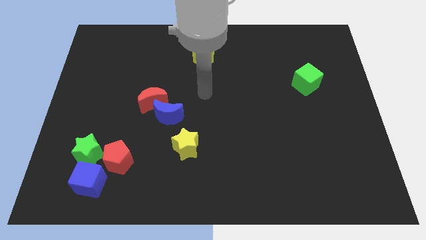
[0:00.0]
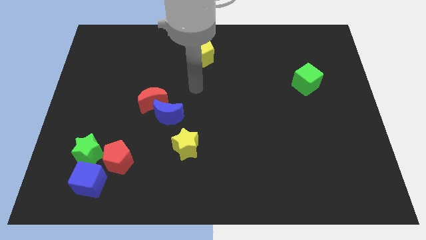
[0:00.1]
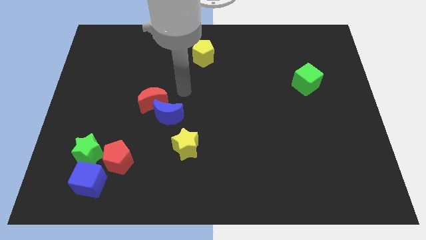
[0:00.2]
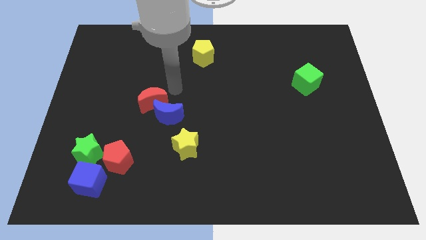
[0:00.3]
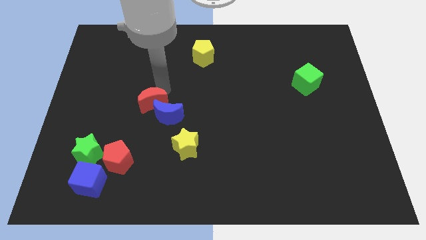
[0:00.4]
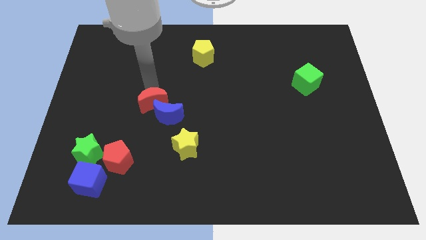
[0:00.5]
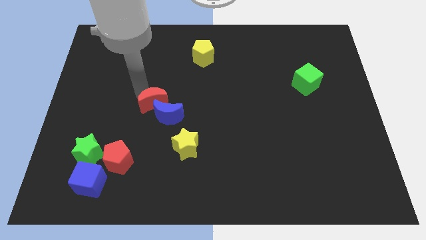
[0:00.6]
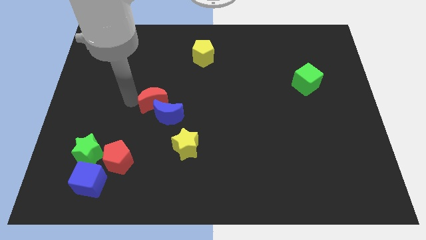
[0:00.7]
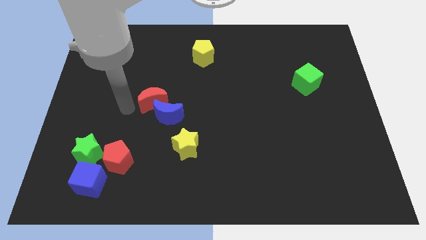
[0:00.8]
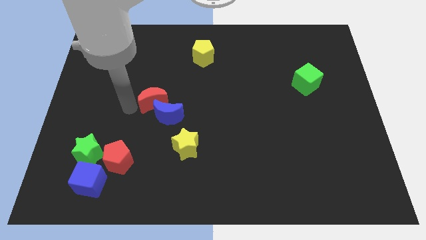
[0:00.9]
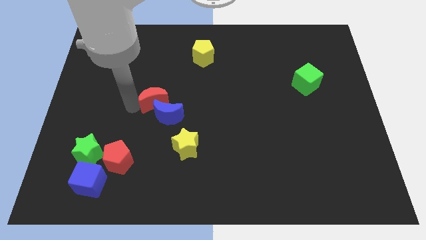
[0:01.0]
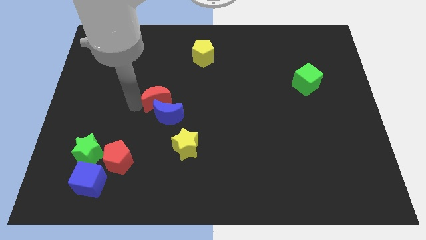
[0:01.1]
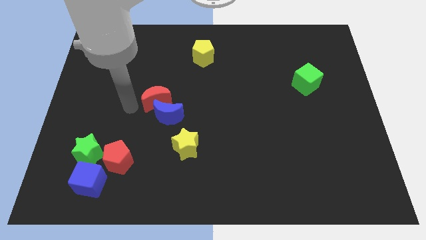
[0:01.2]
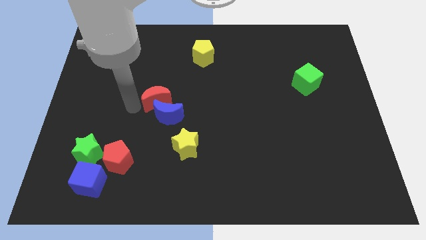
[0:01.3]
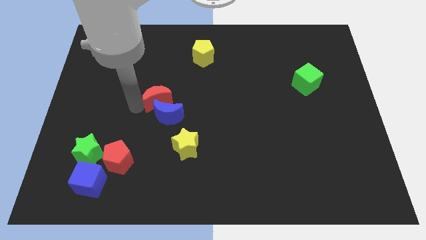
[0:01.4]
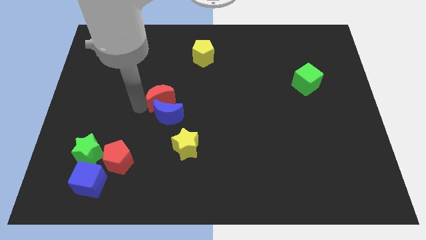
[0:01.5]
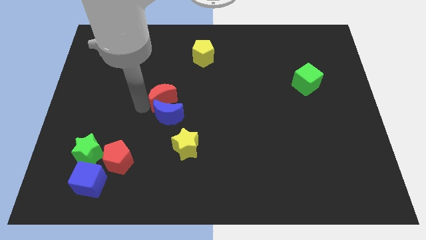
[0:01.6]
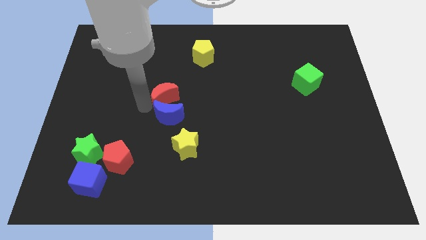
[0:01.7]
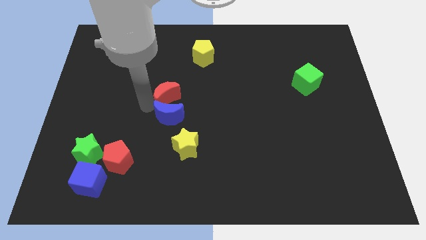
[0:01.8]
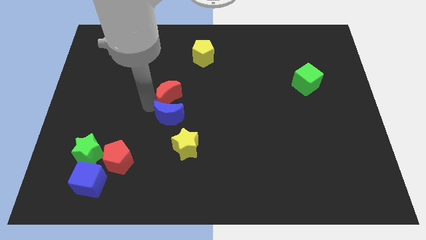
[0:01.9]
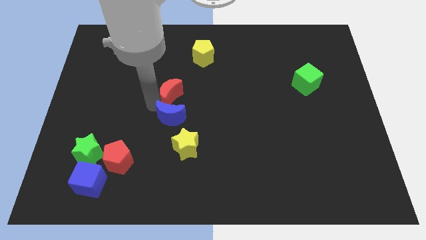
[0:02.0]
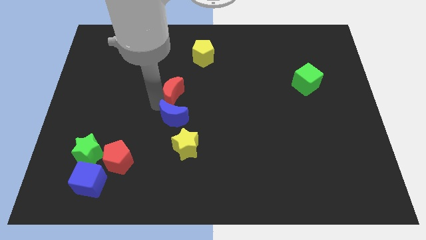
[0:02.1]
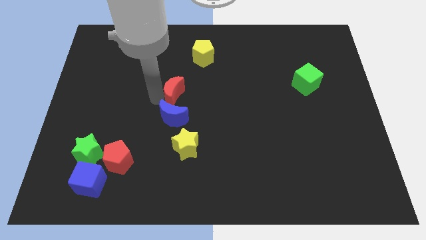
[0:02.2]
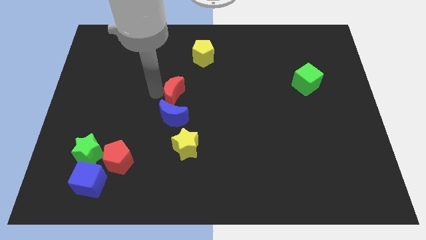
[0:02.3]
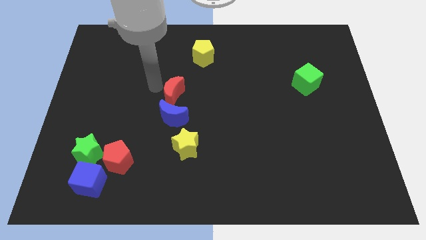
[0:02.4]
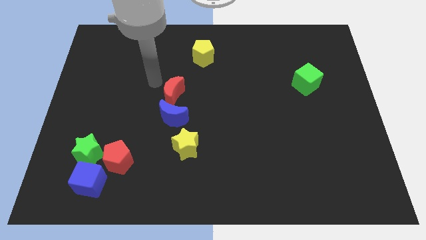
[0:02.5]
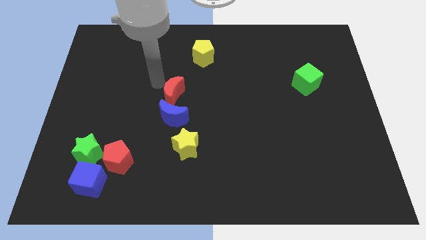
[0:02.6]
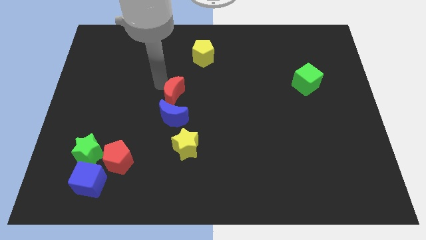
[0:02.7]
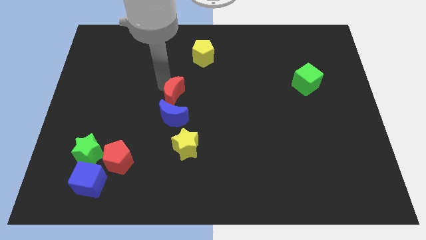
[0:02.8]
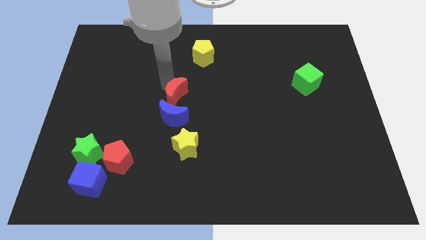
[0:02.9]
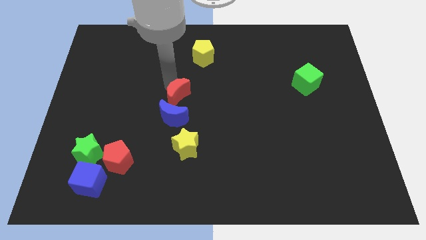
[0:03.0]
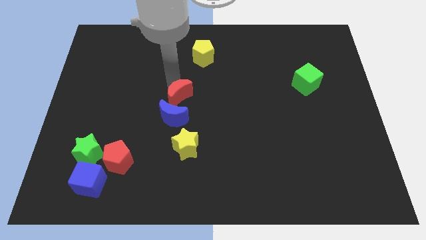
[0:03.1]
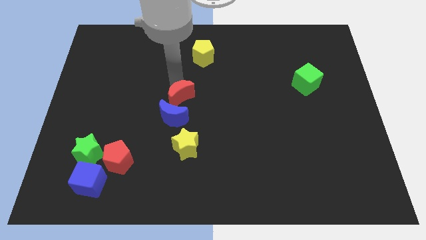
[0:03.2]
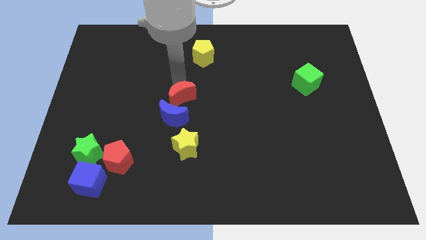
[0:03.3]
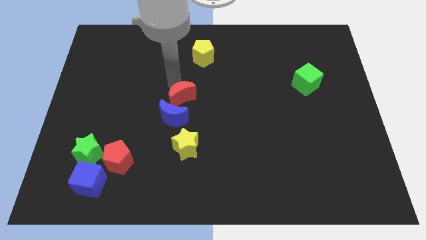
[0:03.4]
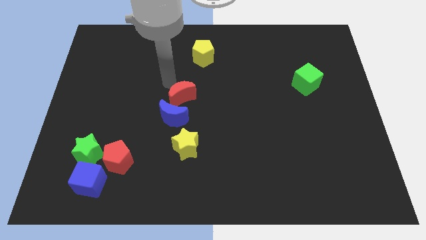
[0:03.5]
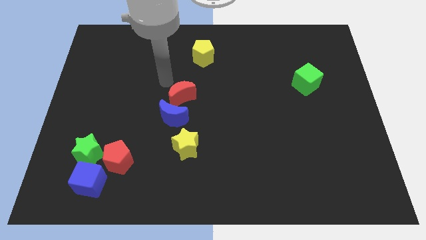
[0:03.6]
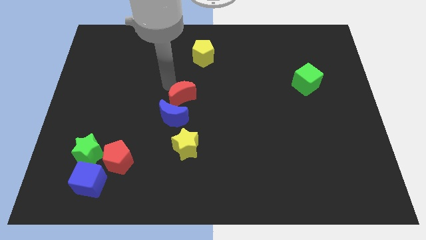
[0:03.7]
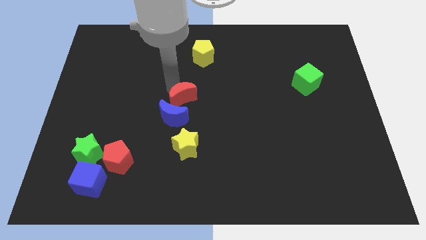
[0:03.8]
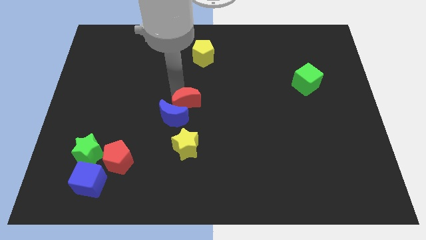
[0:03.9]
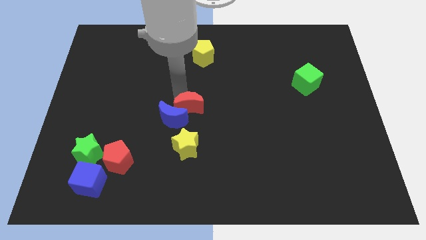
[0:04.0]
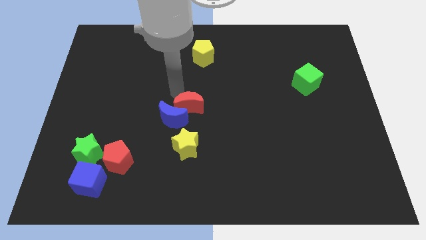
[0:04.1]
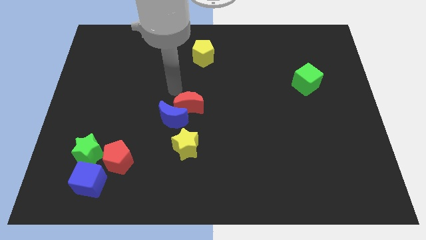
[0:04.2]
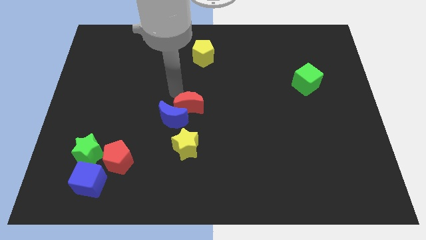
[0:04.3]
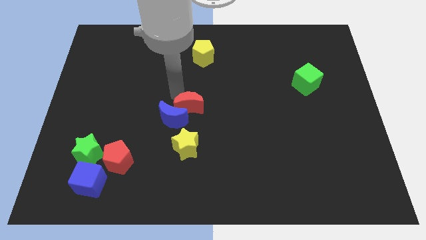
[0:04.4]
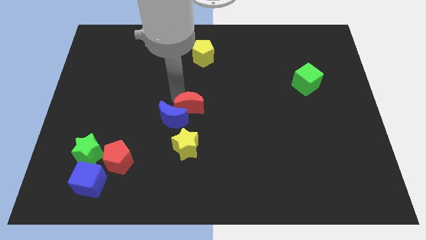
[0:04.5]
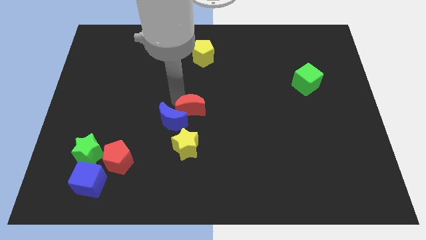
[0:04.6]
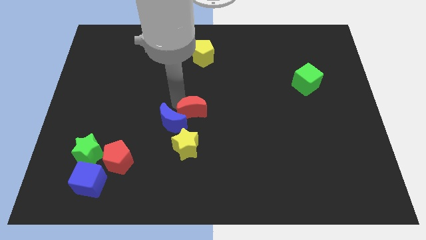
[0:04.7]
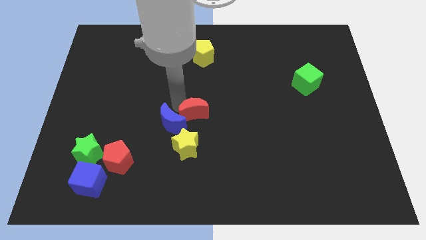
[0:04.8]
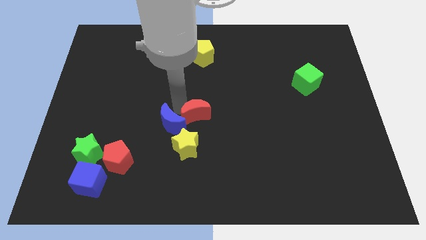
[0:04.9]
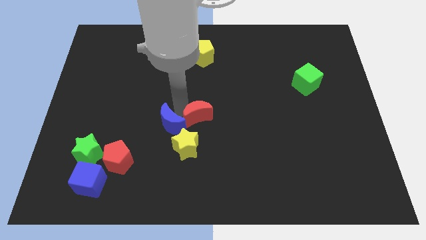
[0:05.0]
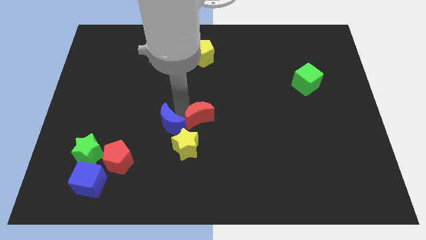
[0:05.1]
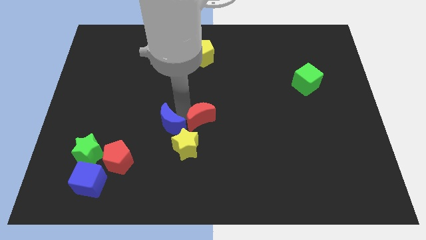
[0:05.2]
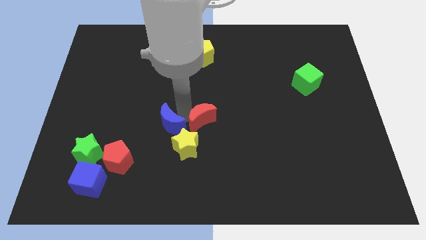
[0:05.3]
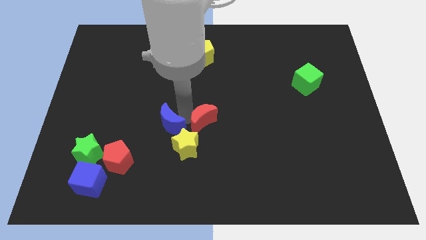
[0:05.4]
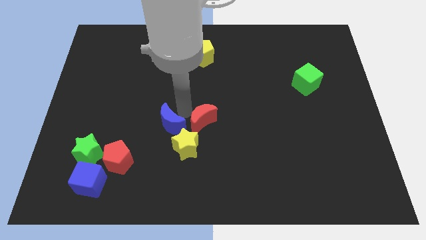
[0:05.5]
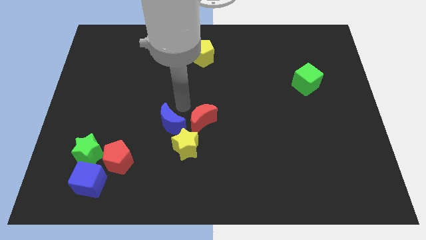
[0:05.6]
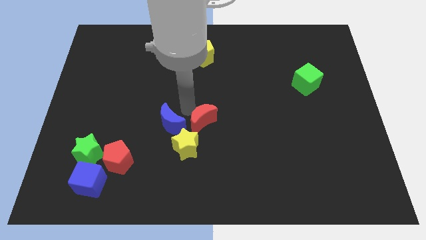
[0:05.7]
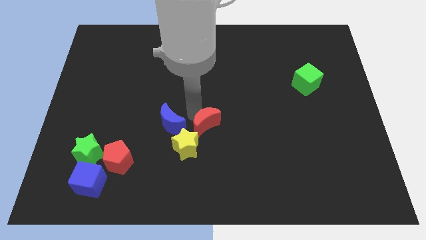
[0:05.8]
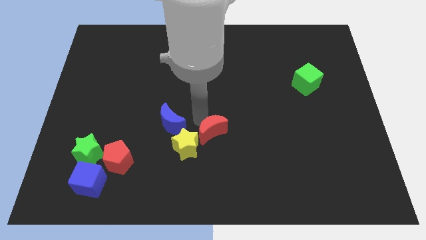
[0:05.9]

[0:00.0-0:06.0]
push the red moon to the right of the yellow star

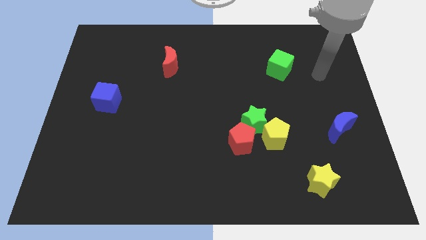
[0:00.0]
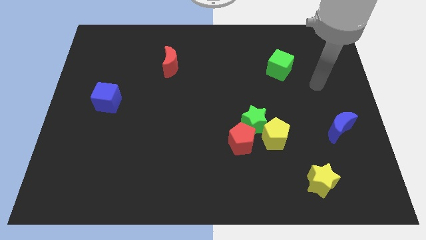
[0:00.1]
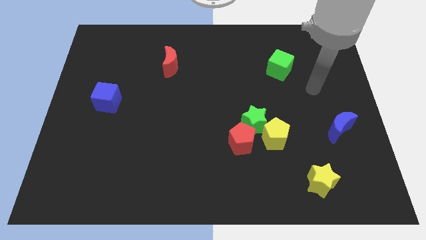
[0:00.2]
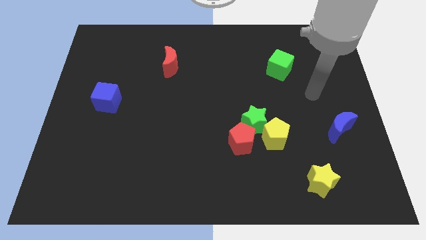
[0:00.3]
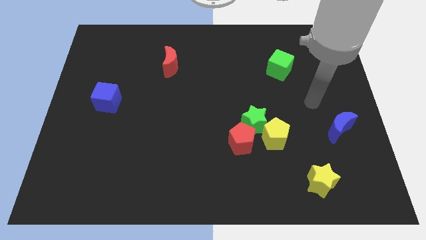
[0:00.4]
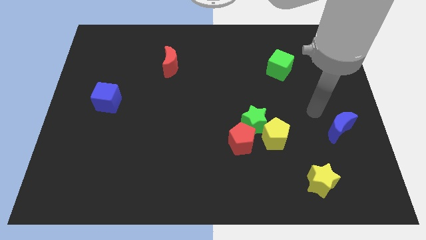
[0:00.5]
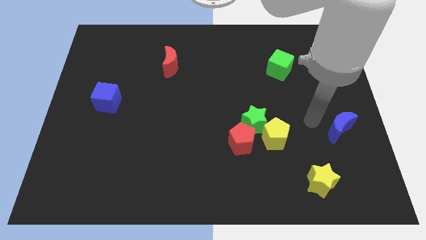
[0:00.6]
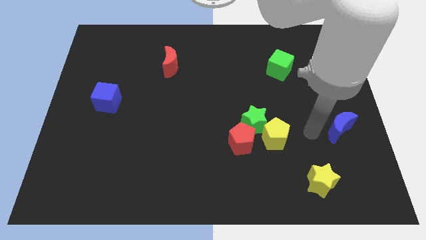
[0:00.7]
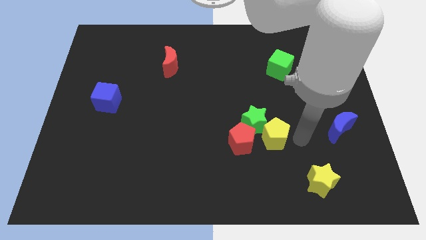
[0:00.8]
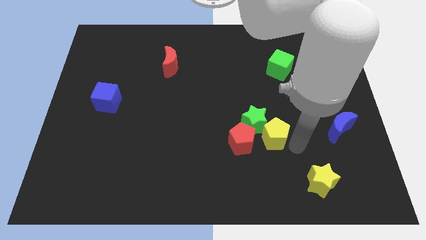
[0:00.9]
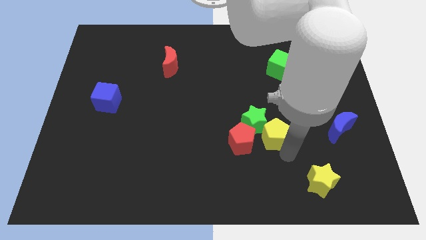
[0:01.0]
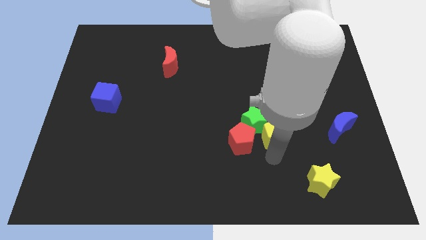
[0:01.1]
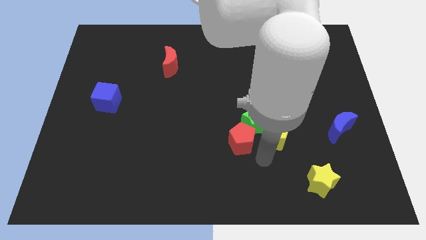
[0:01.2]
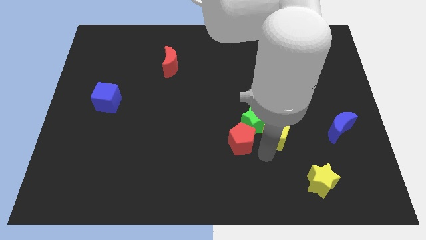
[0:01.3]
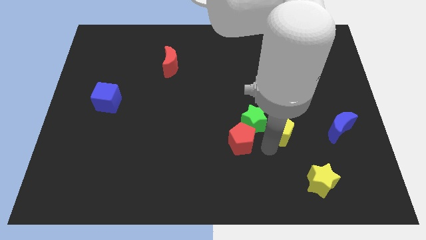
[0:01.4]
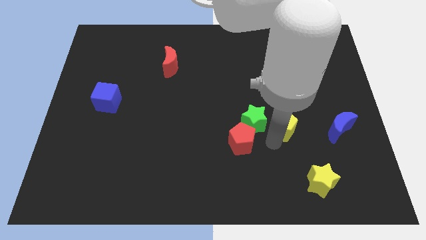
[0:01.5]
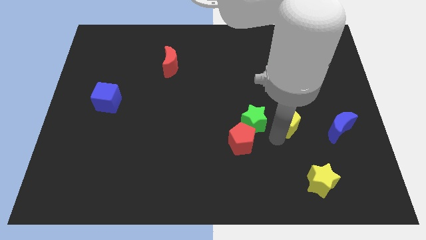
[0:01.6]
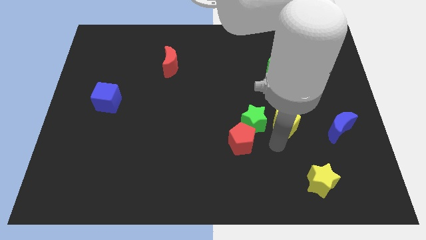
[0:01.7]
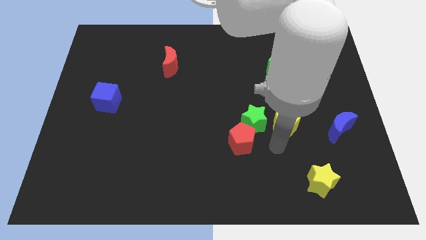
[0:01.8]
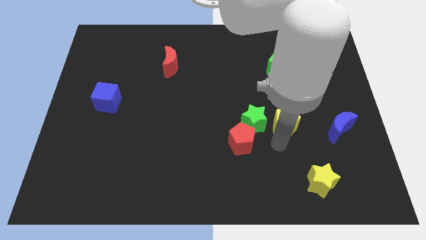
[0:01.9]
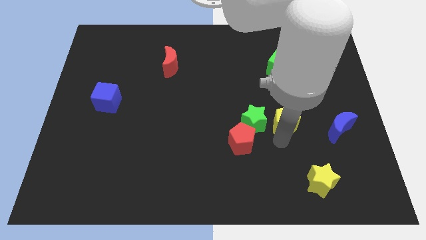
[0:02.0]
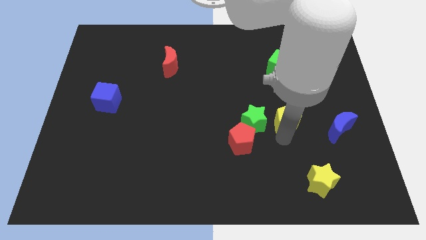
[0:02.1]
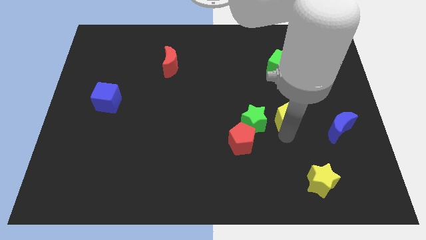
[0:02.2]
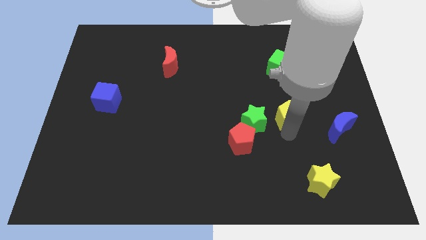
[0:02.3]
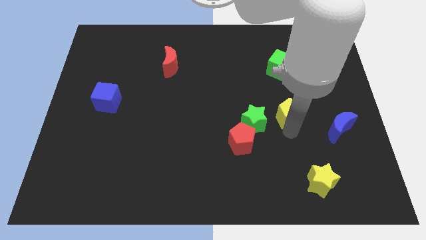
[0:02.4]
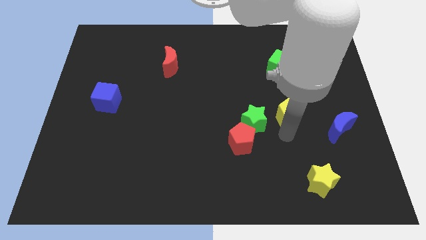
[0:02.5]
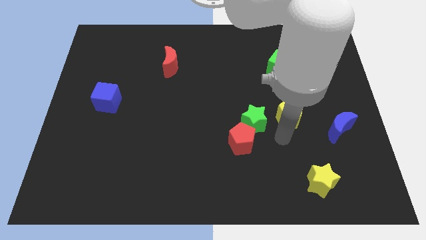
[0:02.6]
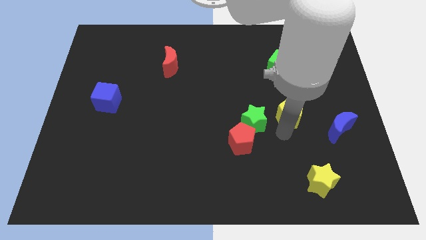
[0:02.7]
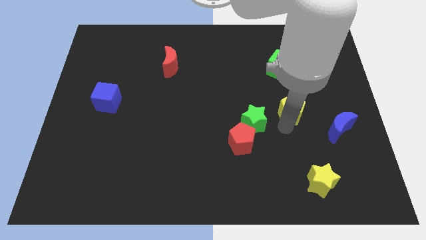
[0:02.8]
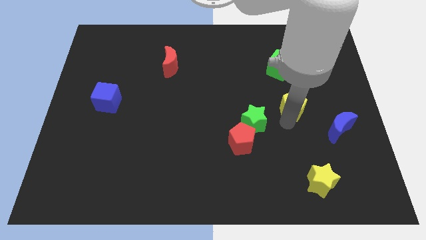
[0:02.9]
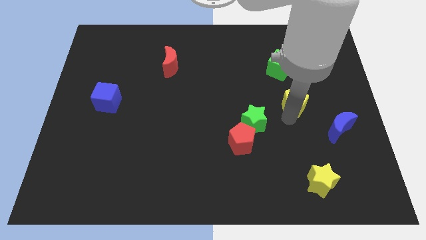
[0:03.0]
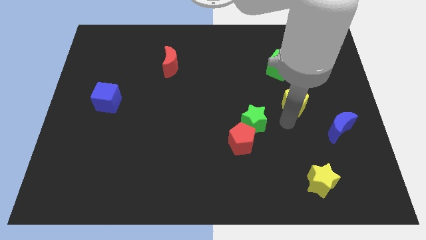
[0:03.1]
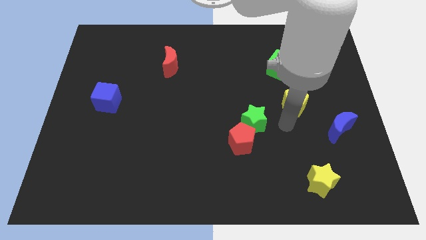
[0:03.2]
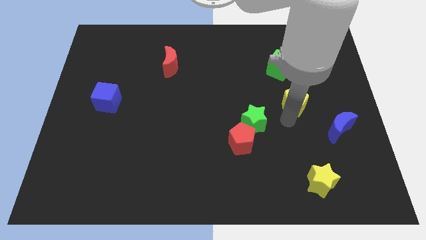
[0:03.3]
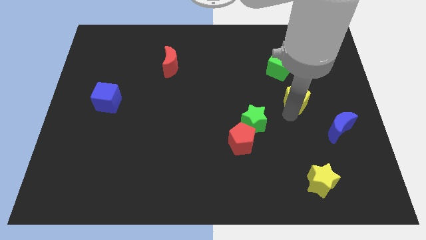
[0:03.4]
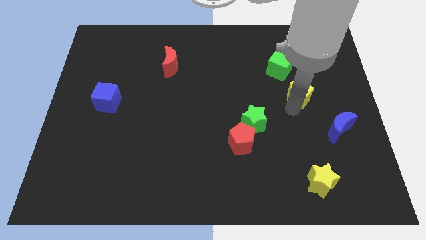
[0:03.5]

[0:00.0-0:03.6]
put the yellow pentagon to the bottom right side of the green cube
